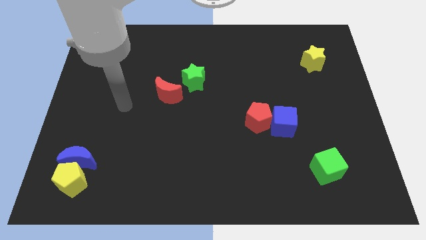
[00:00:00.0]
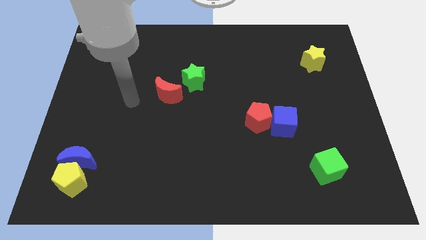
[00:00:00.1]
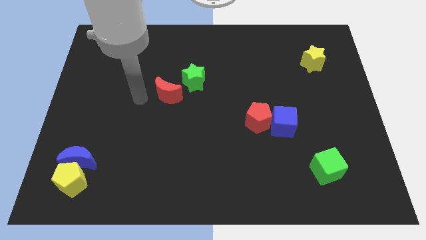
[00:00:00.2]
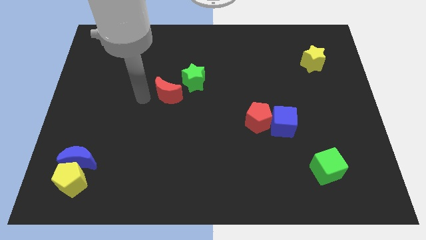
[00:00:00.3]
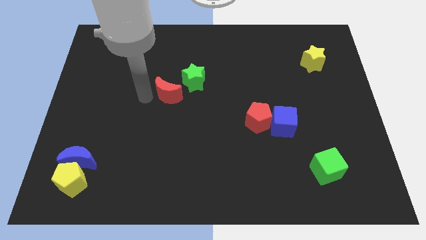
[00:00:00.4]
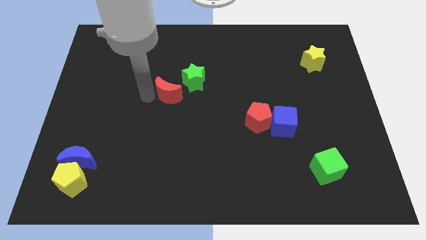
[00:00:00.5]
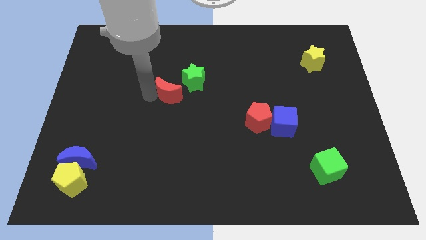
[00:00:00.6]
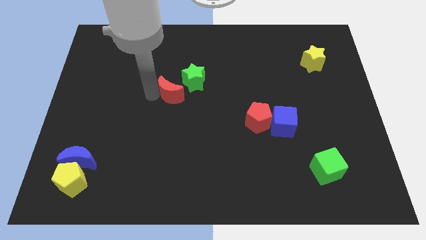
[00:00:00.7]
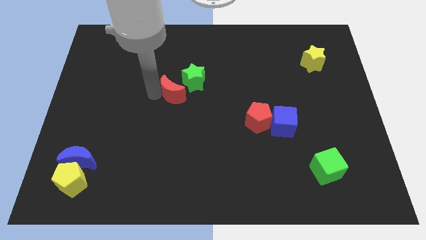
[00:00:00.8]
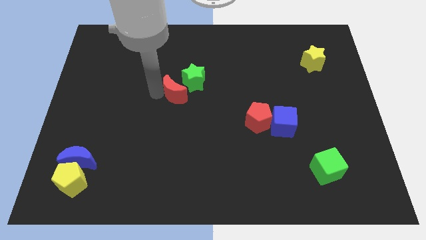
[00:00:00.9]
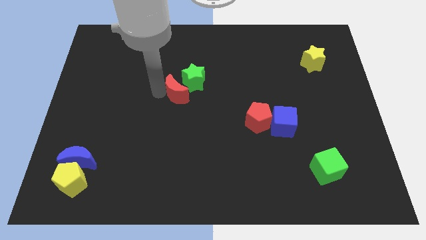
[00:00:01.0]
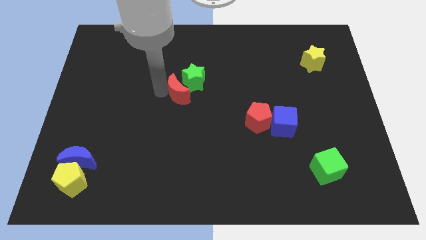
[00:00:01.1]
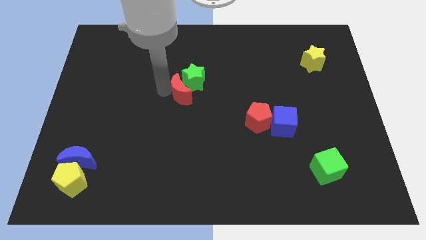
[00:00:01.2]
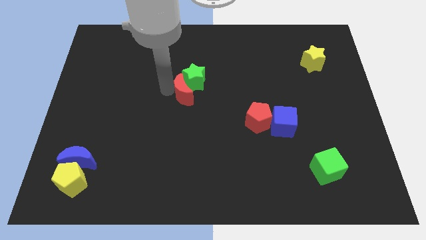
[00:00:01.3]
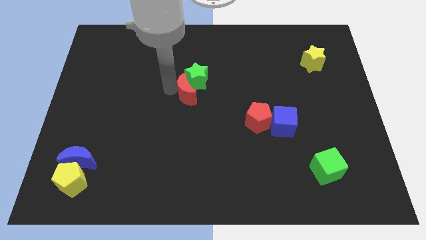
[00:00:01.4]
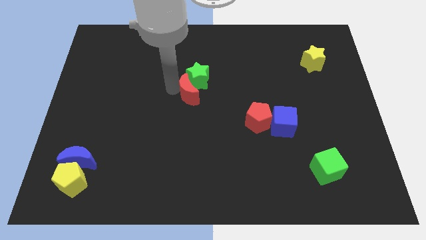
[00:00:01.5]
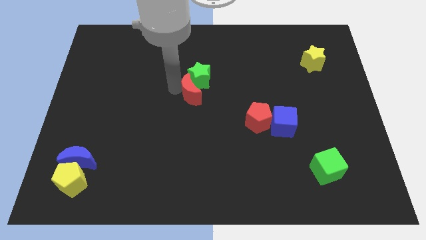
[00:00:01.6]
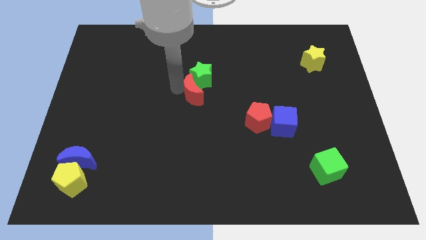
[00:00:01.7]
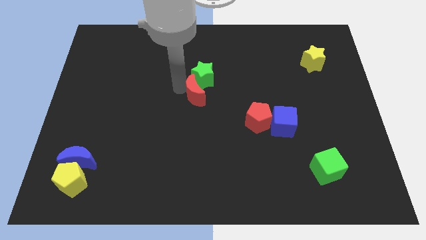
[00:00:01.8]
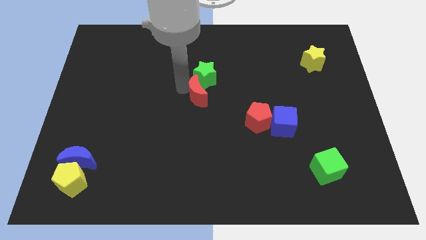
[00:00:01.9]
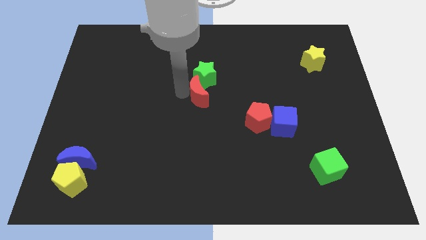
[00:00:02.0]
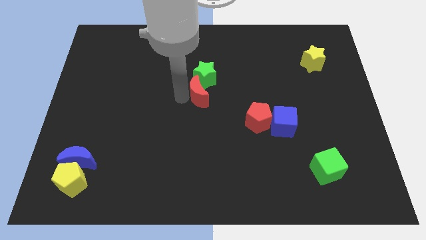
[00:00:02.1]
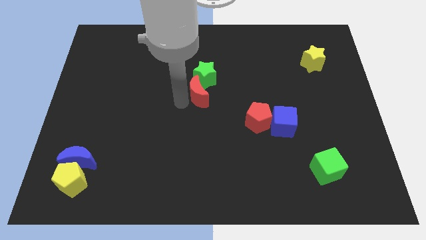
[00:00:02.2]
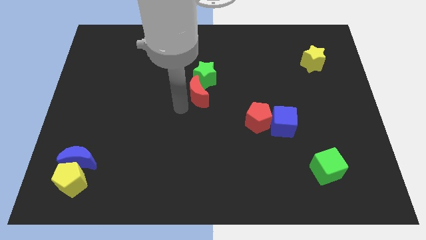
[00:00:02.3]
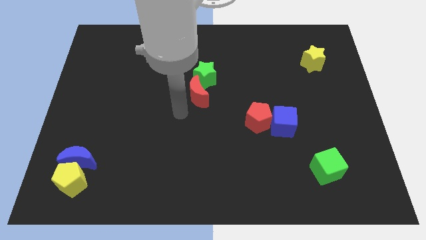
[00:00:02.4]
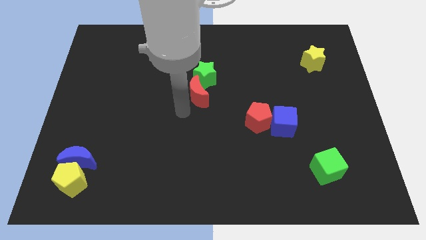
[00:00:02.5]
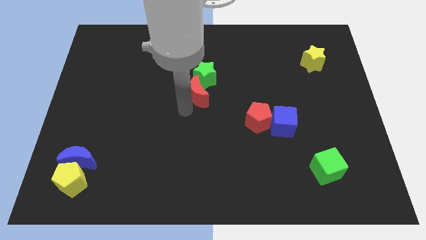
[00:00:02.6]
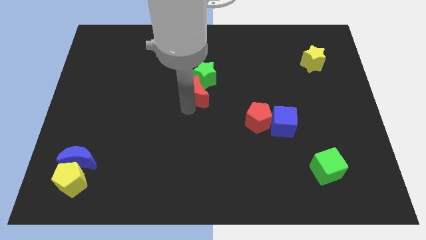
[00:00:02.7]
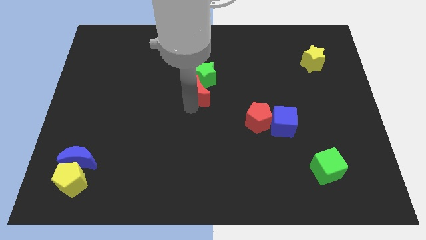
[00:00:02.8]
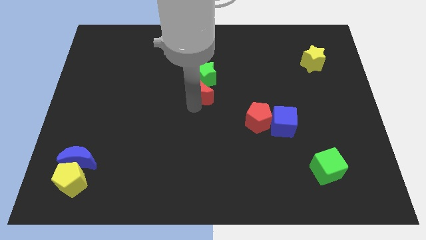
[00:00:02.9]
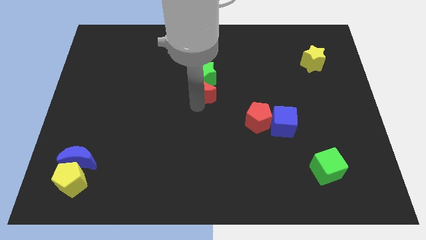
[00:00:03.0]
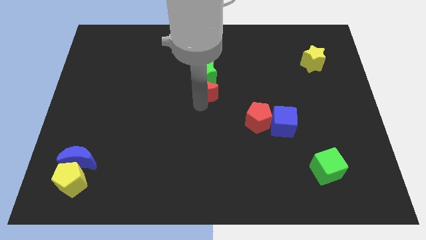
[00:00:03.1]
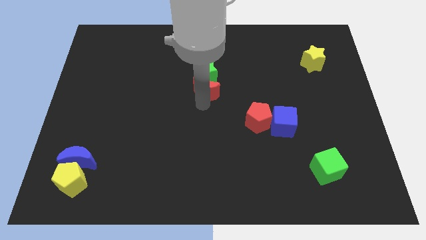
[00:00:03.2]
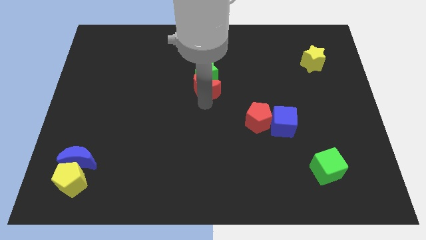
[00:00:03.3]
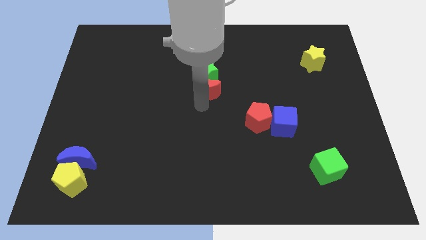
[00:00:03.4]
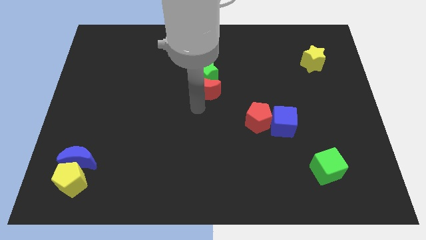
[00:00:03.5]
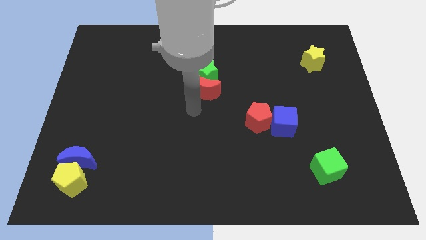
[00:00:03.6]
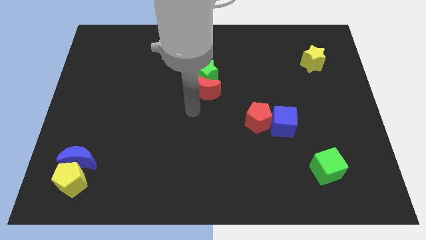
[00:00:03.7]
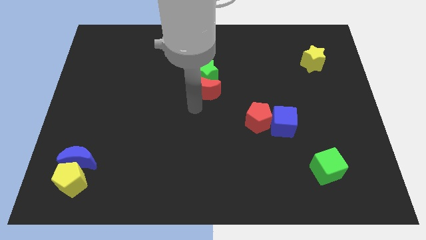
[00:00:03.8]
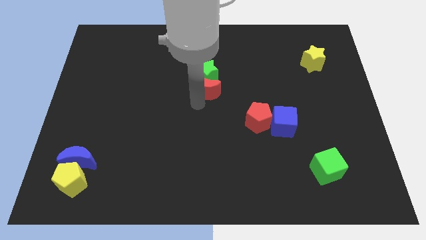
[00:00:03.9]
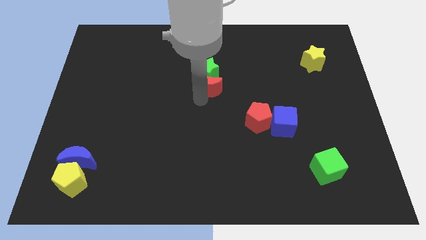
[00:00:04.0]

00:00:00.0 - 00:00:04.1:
move the red moon up and right somewhat

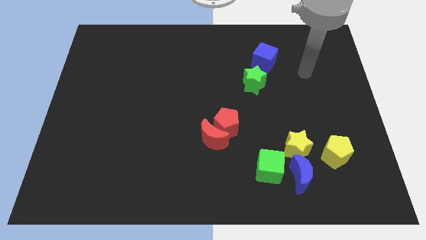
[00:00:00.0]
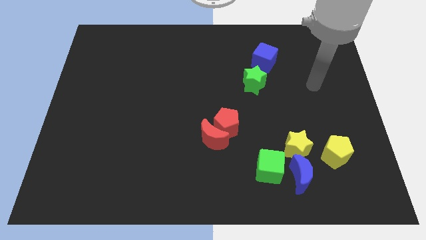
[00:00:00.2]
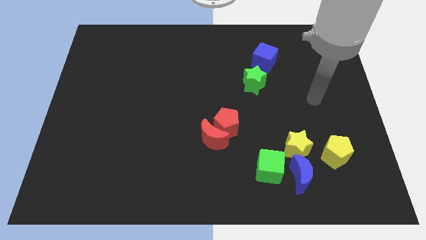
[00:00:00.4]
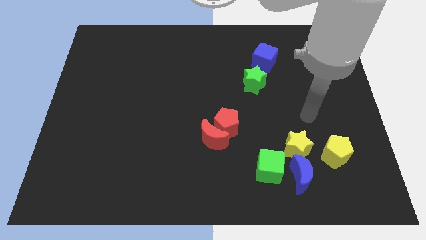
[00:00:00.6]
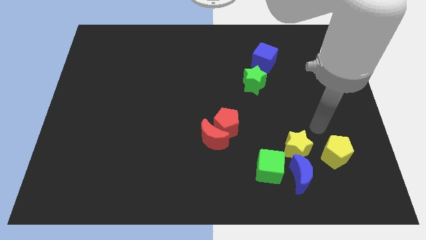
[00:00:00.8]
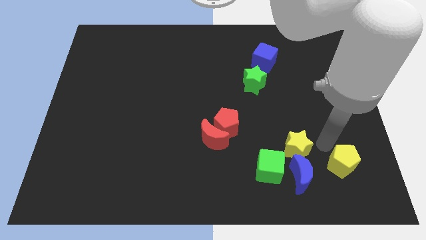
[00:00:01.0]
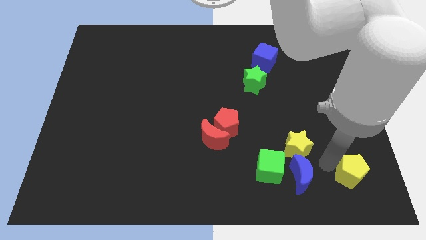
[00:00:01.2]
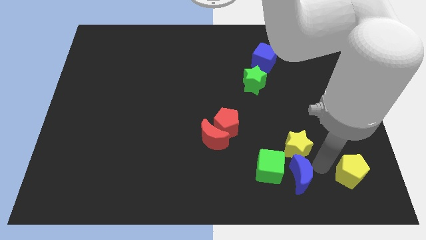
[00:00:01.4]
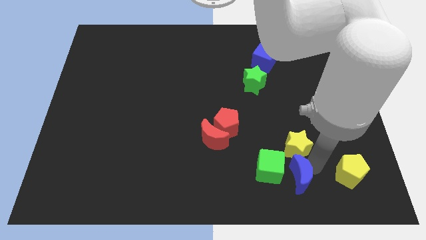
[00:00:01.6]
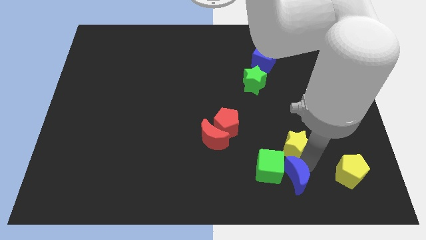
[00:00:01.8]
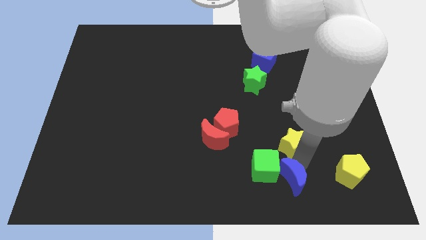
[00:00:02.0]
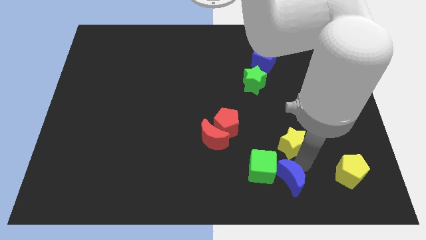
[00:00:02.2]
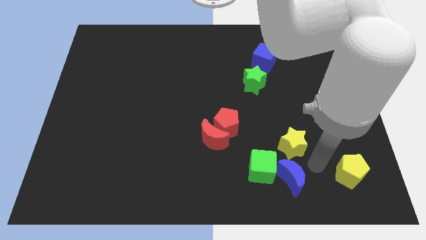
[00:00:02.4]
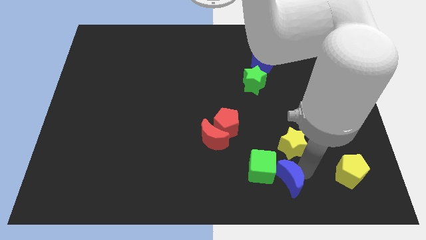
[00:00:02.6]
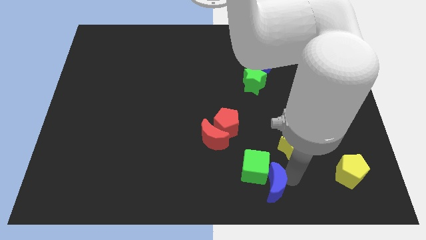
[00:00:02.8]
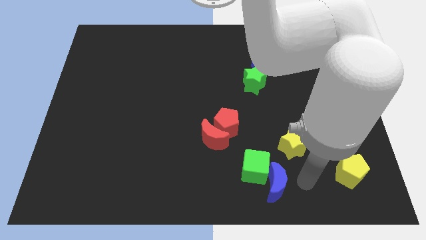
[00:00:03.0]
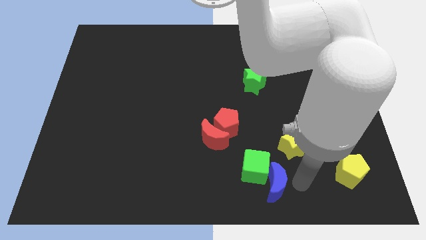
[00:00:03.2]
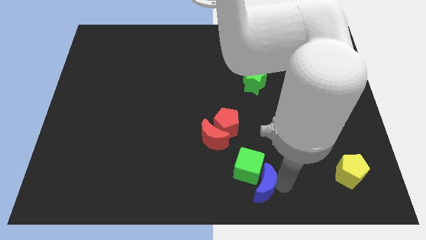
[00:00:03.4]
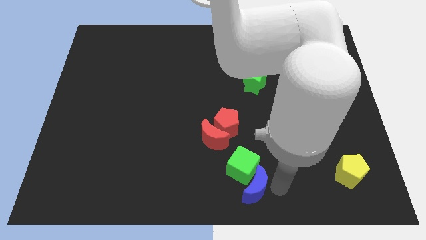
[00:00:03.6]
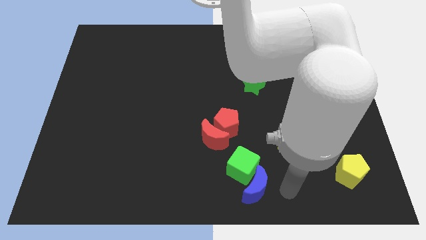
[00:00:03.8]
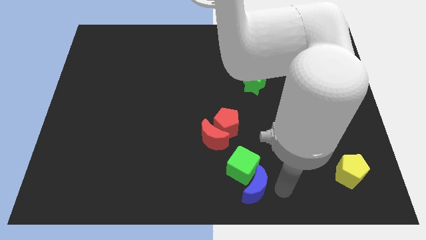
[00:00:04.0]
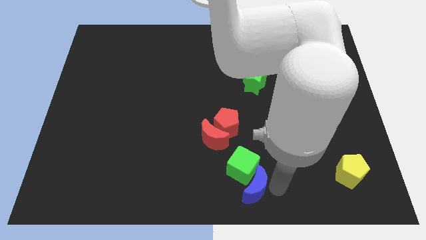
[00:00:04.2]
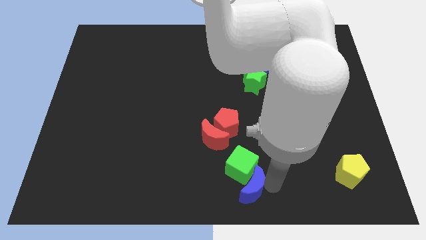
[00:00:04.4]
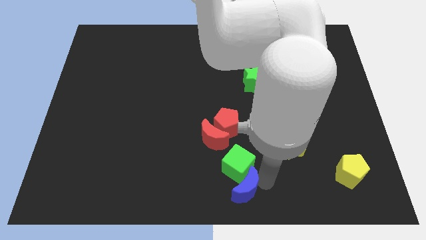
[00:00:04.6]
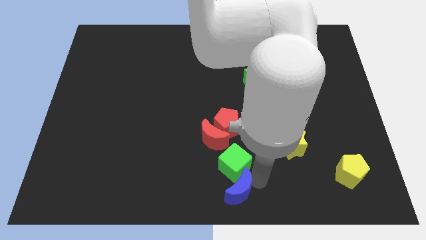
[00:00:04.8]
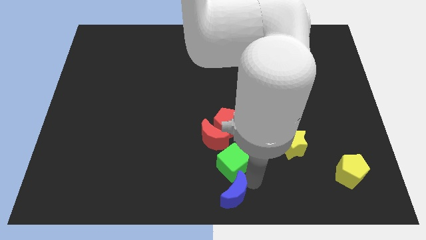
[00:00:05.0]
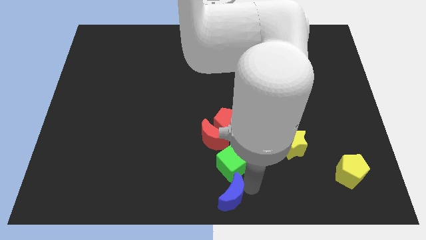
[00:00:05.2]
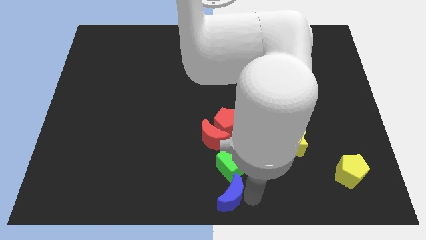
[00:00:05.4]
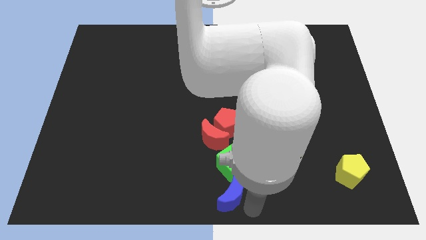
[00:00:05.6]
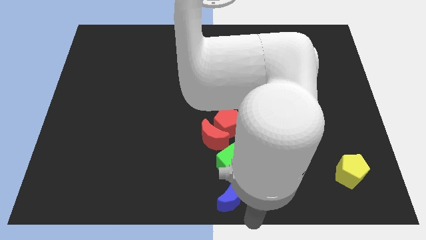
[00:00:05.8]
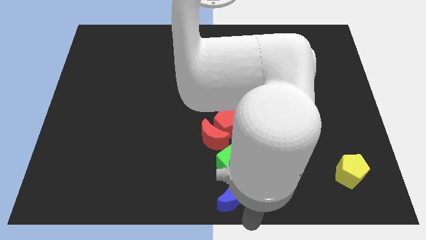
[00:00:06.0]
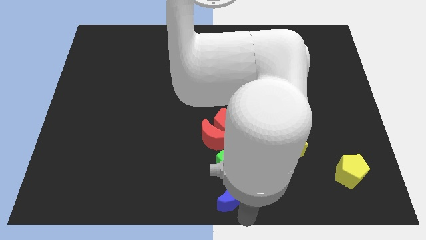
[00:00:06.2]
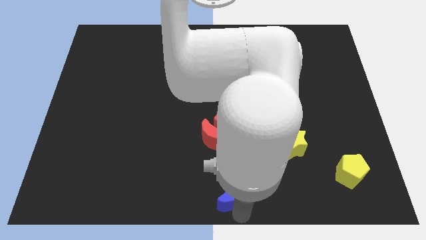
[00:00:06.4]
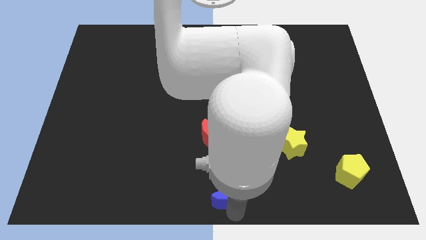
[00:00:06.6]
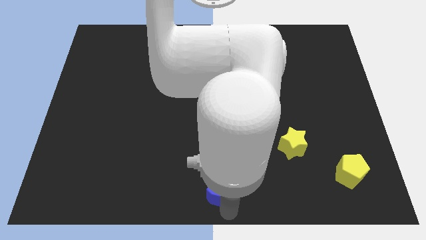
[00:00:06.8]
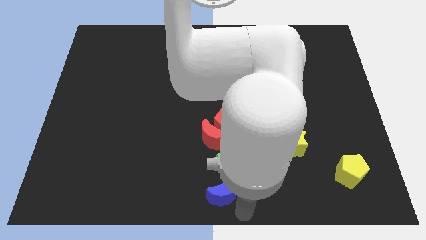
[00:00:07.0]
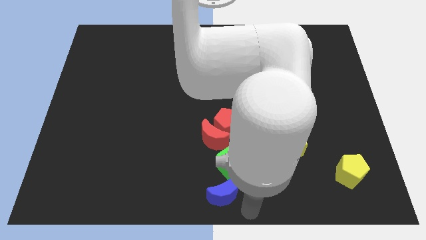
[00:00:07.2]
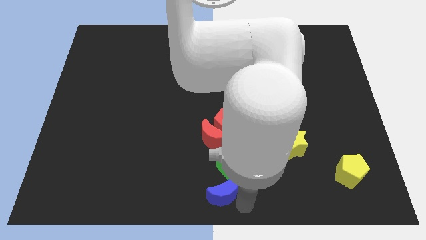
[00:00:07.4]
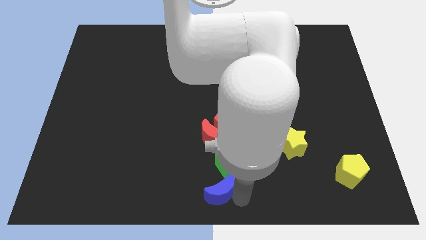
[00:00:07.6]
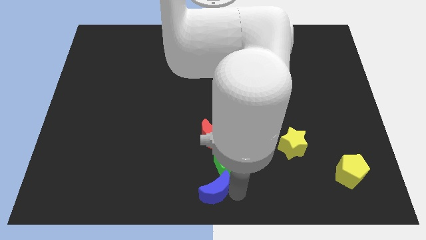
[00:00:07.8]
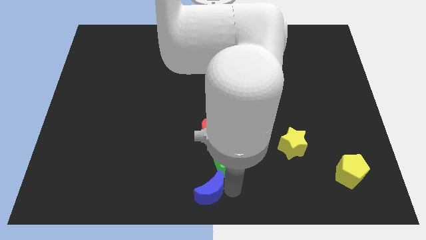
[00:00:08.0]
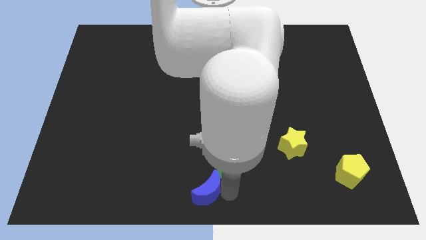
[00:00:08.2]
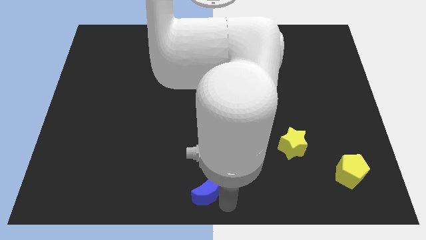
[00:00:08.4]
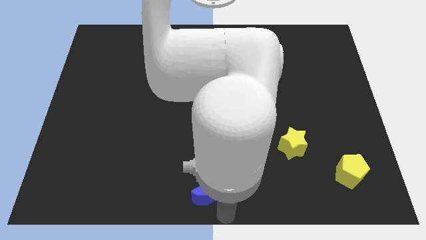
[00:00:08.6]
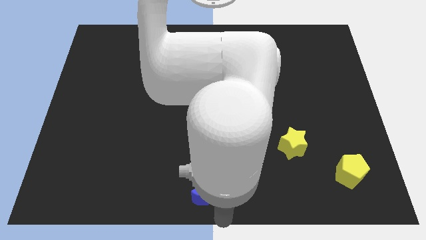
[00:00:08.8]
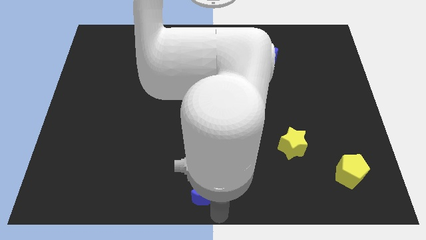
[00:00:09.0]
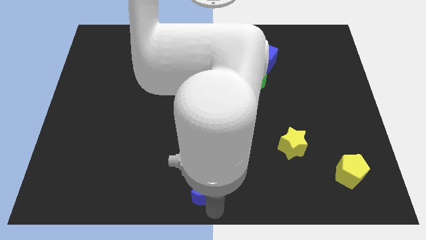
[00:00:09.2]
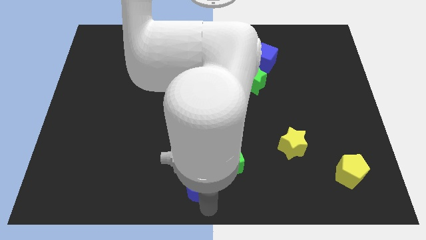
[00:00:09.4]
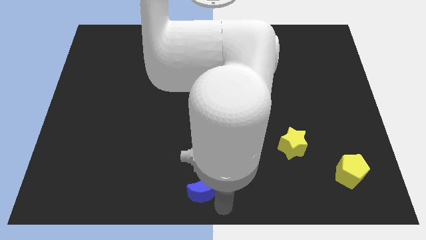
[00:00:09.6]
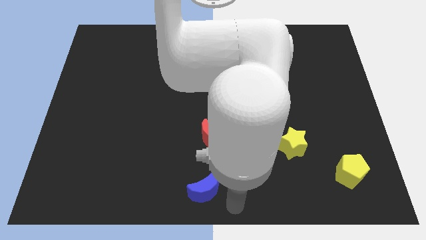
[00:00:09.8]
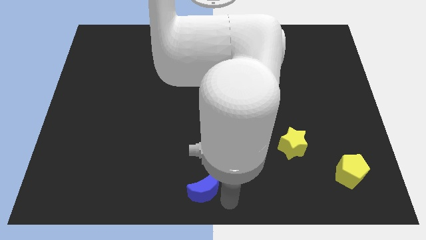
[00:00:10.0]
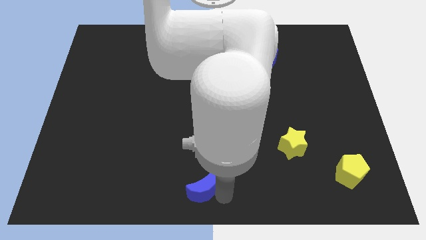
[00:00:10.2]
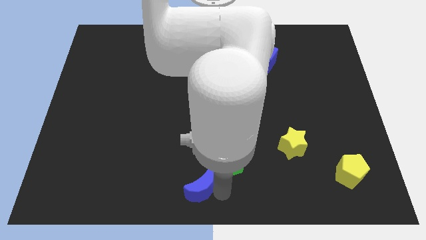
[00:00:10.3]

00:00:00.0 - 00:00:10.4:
move the blue moon left
